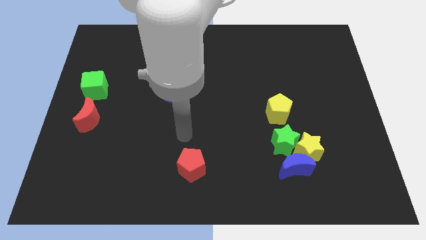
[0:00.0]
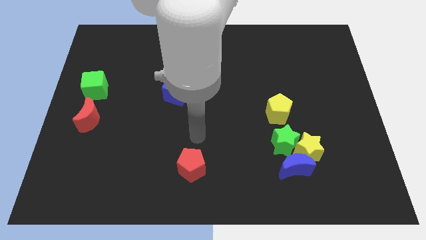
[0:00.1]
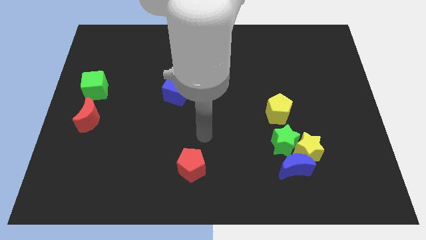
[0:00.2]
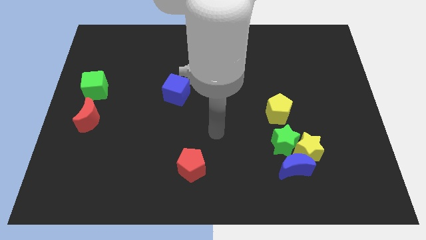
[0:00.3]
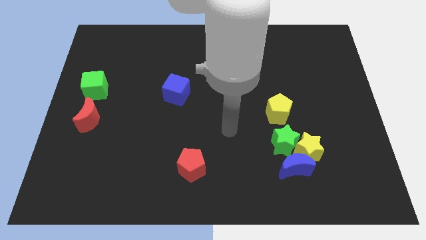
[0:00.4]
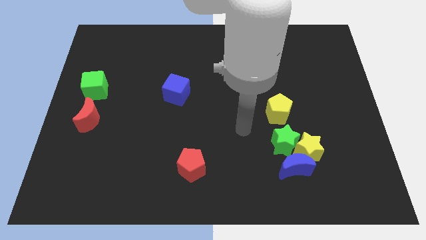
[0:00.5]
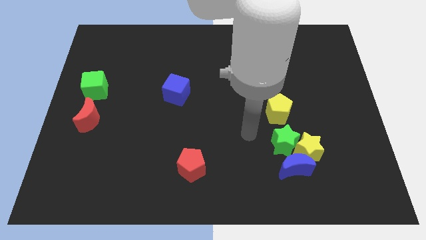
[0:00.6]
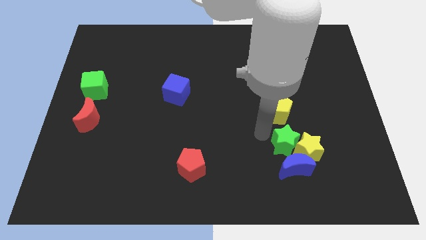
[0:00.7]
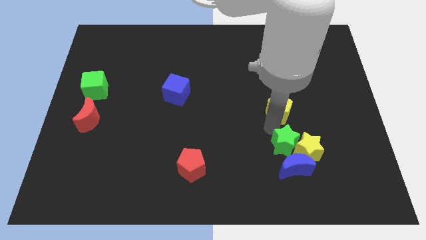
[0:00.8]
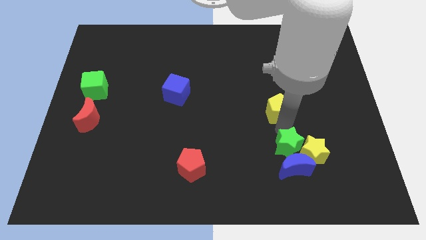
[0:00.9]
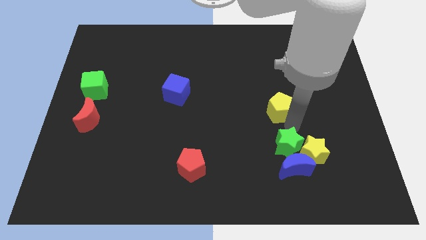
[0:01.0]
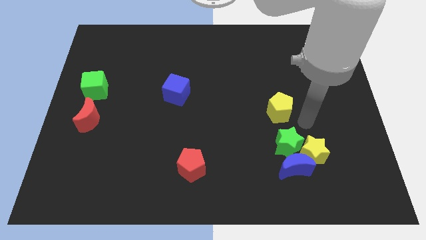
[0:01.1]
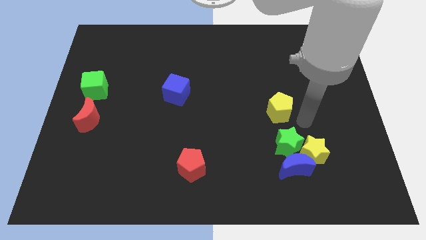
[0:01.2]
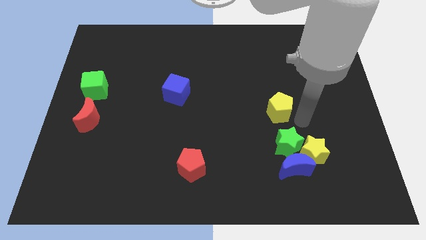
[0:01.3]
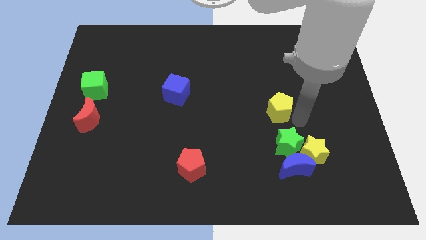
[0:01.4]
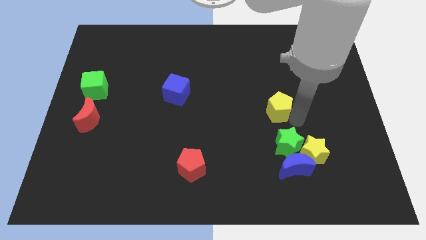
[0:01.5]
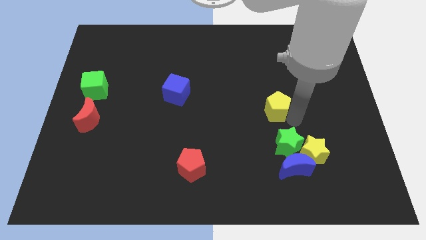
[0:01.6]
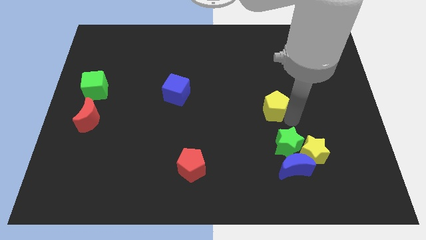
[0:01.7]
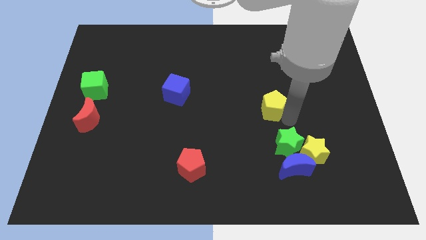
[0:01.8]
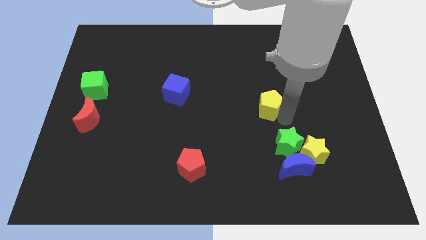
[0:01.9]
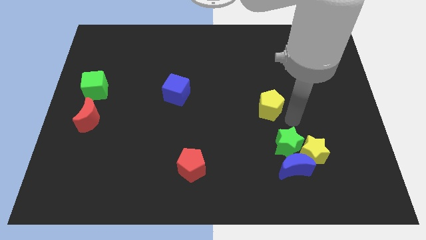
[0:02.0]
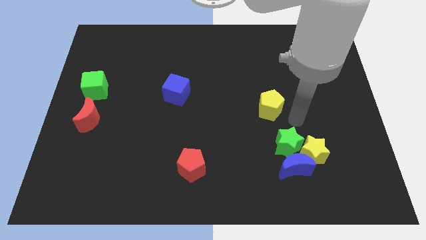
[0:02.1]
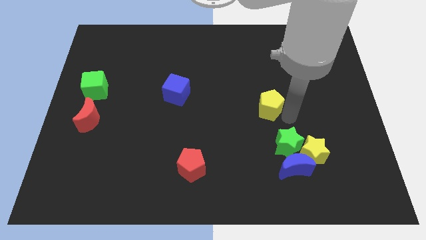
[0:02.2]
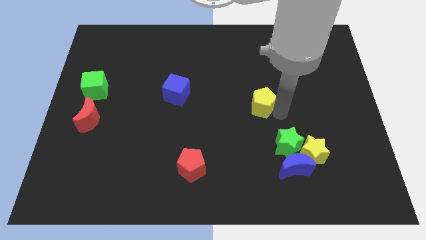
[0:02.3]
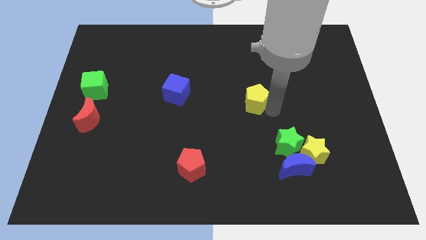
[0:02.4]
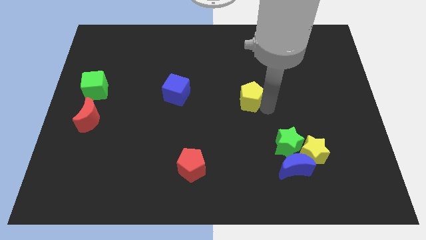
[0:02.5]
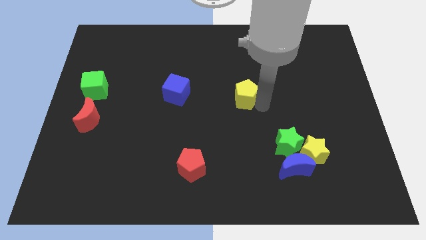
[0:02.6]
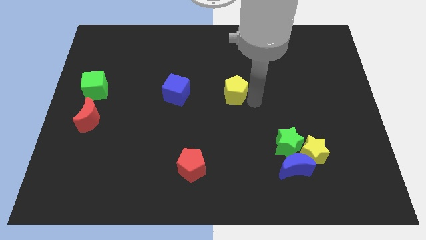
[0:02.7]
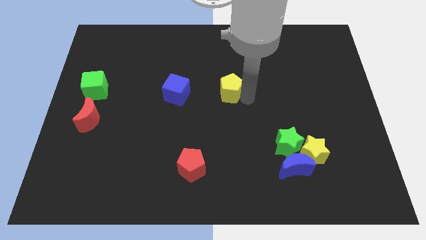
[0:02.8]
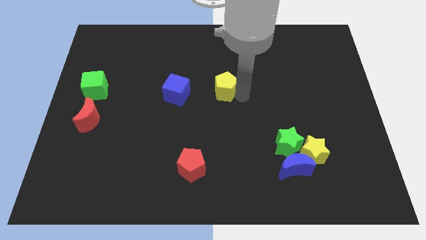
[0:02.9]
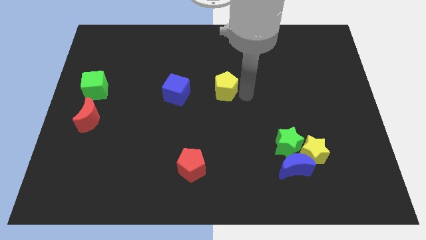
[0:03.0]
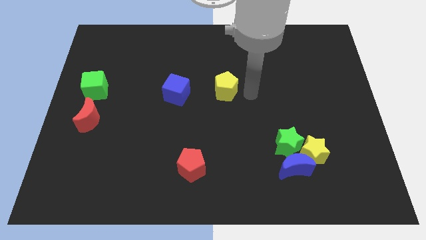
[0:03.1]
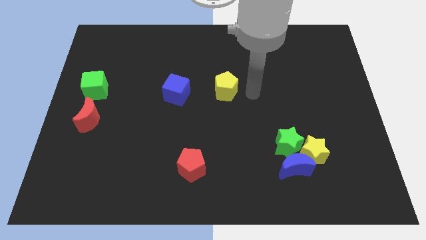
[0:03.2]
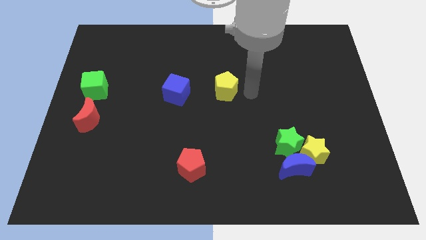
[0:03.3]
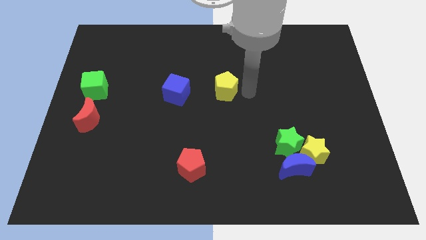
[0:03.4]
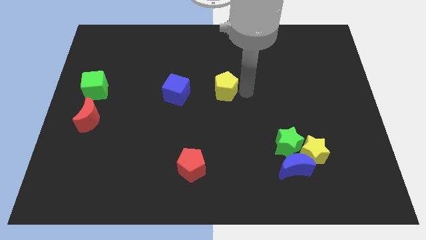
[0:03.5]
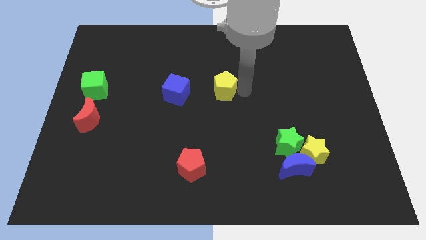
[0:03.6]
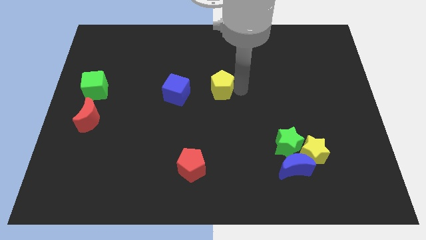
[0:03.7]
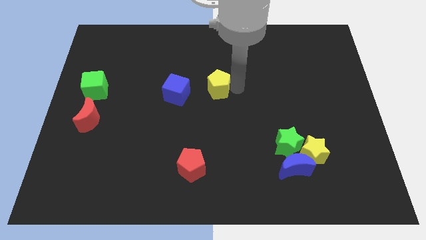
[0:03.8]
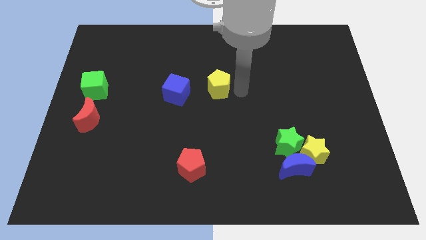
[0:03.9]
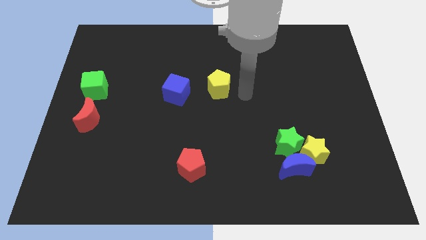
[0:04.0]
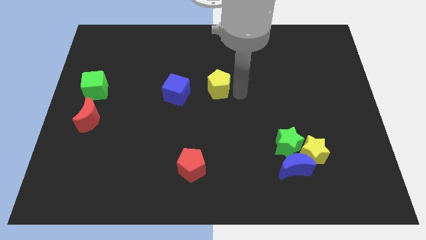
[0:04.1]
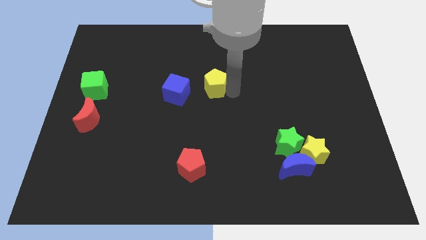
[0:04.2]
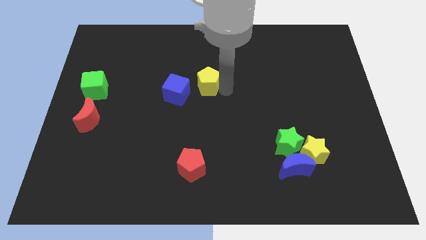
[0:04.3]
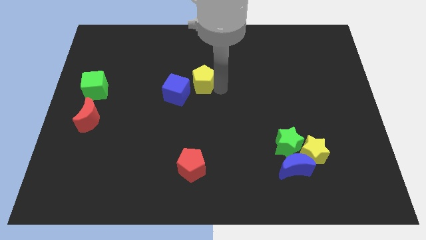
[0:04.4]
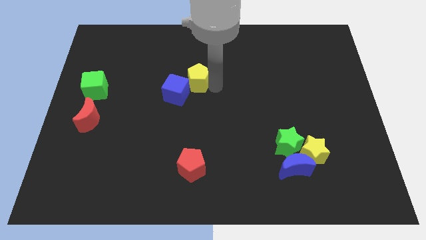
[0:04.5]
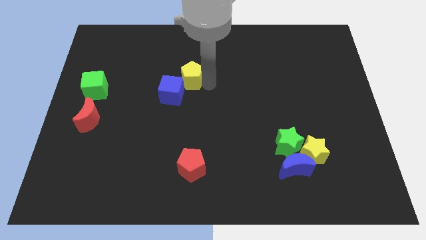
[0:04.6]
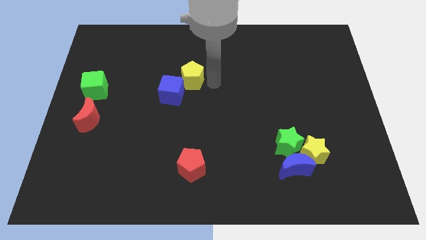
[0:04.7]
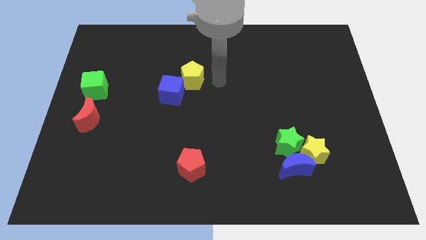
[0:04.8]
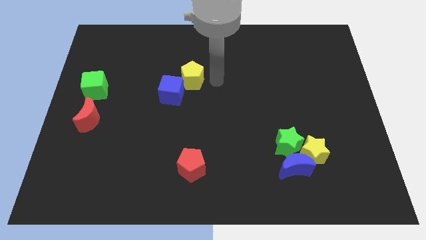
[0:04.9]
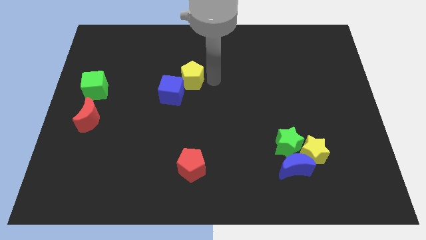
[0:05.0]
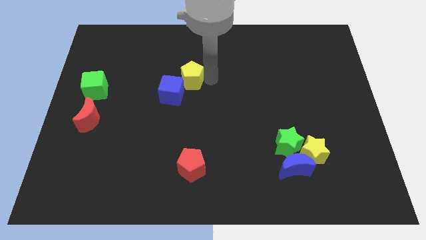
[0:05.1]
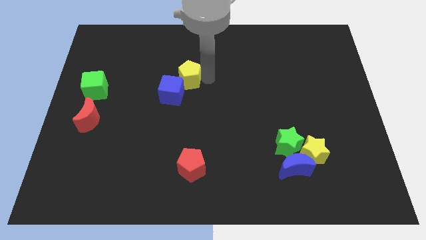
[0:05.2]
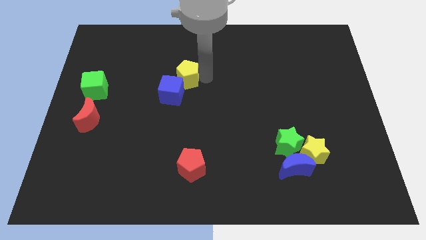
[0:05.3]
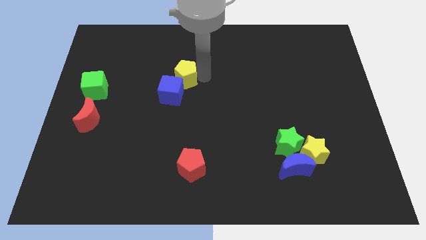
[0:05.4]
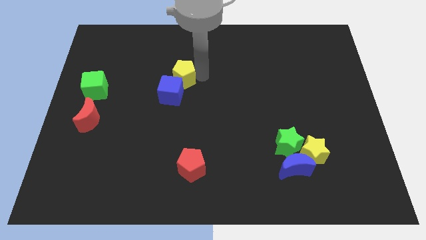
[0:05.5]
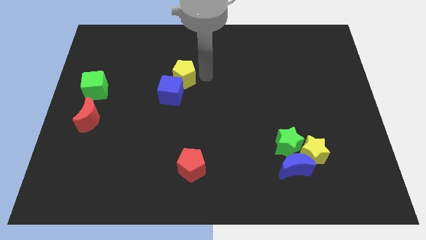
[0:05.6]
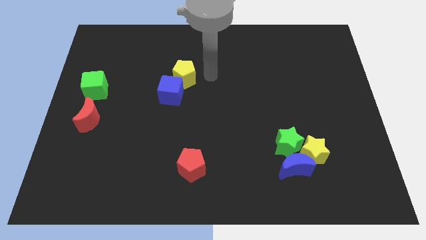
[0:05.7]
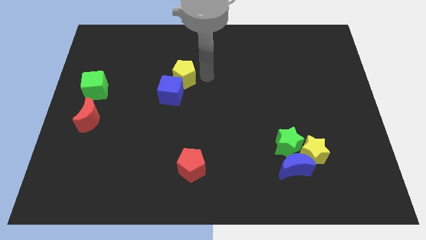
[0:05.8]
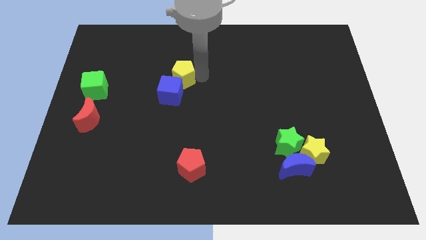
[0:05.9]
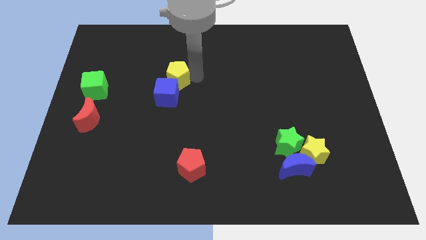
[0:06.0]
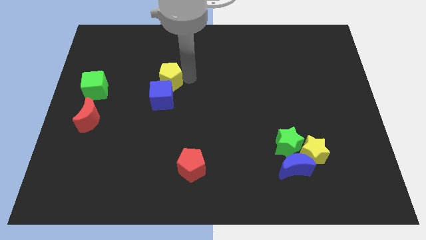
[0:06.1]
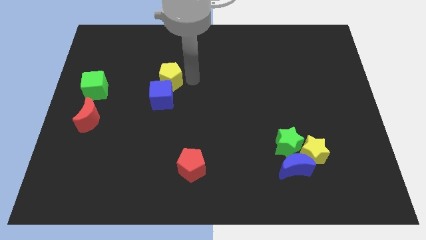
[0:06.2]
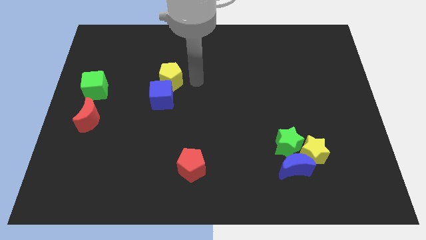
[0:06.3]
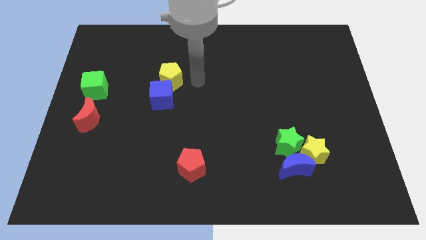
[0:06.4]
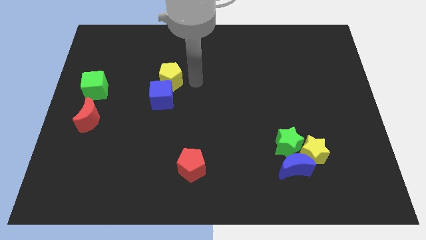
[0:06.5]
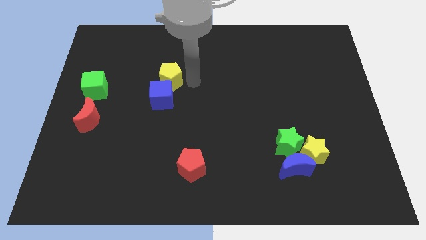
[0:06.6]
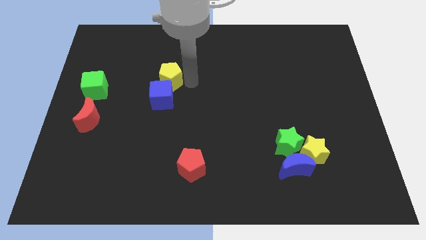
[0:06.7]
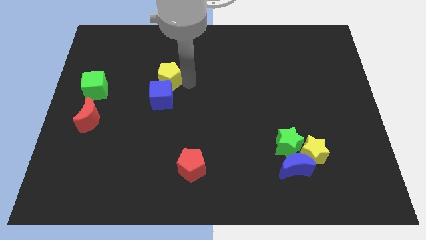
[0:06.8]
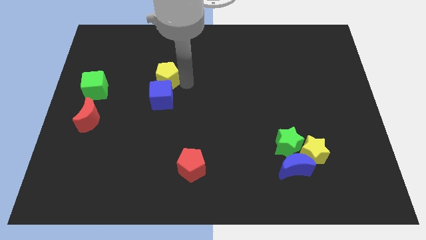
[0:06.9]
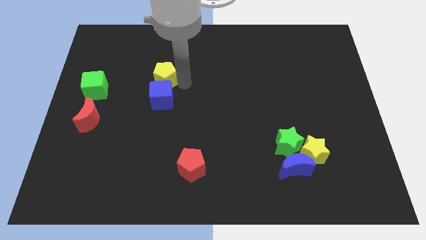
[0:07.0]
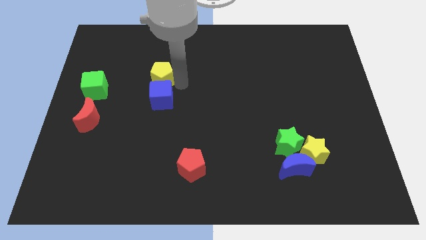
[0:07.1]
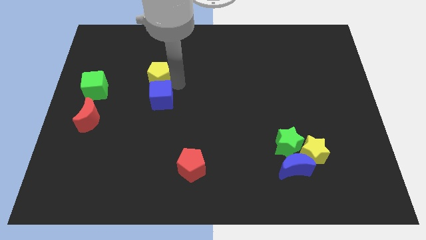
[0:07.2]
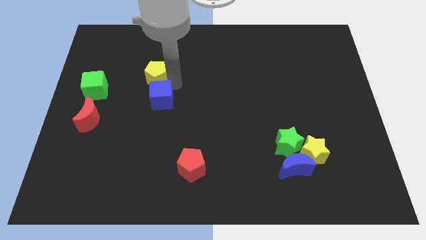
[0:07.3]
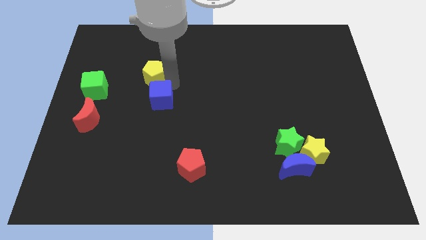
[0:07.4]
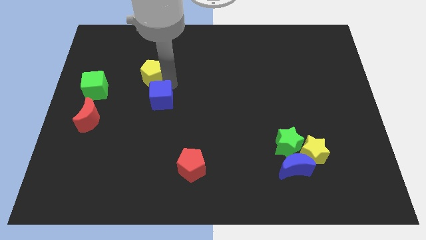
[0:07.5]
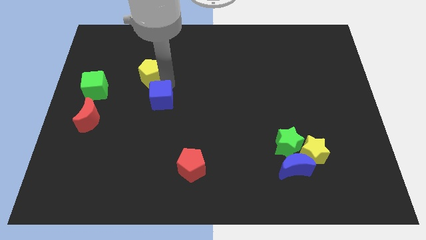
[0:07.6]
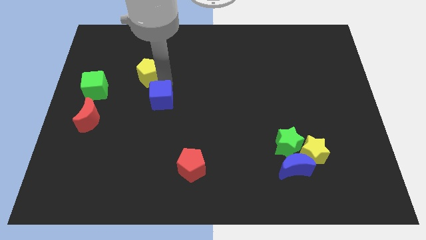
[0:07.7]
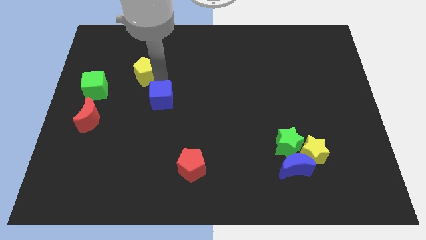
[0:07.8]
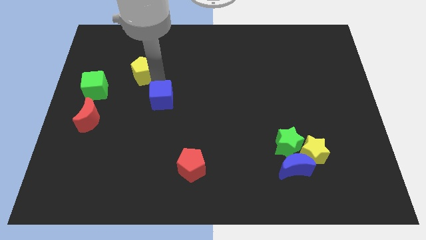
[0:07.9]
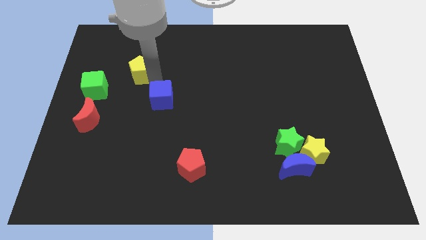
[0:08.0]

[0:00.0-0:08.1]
push the yellow pentagon to the top right side of the green cube
